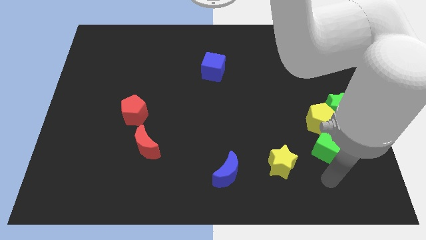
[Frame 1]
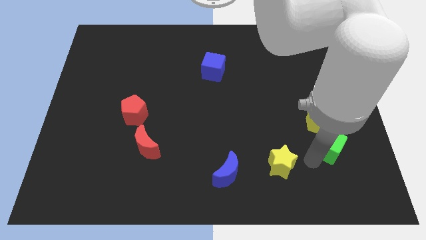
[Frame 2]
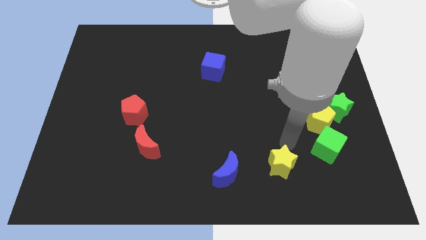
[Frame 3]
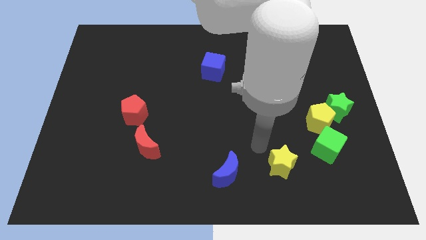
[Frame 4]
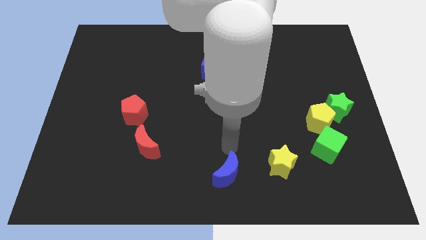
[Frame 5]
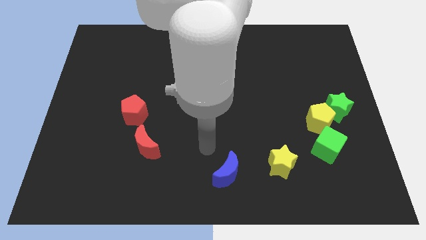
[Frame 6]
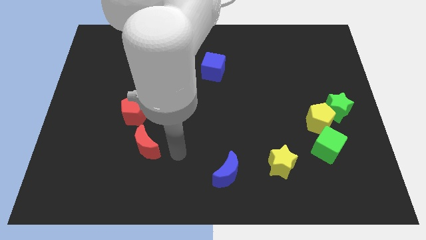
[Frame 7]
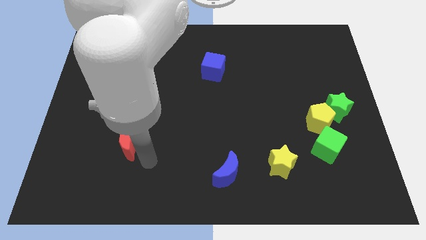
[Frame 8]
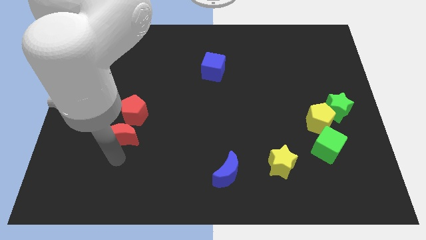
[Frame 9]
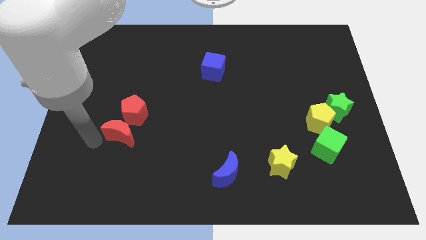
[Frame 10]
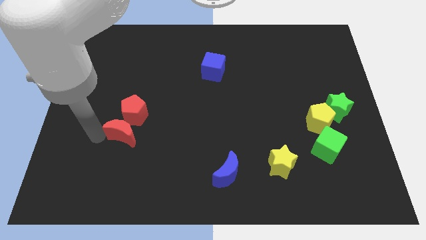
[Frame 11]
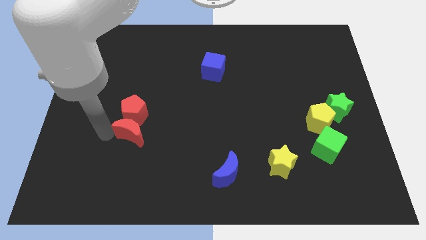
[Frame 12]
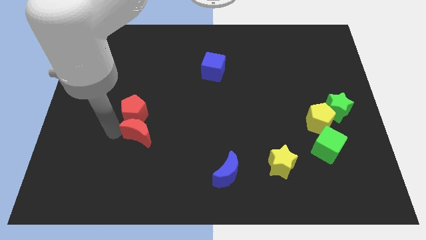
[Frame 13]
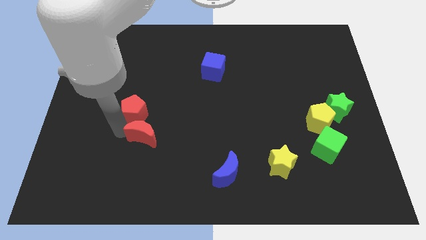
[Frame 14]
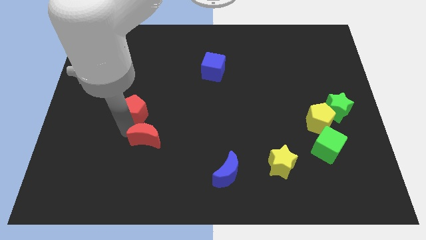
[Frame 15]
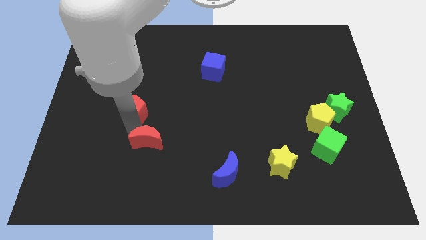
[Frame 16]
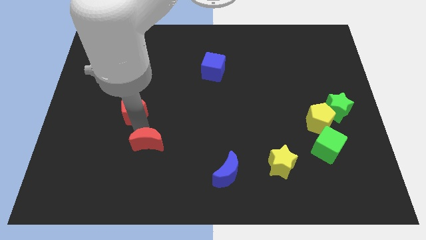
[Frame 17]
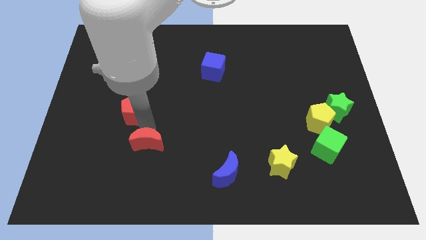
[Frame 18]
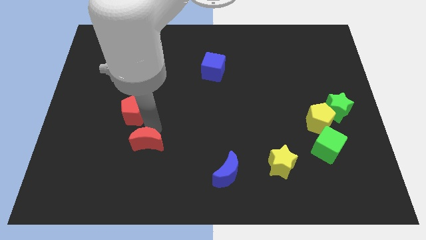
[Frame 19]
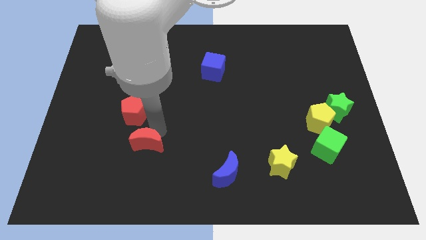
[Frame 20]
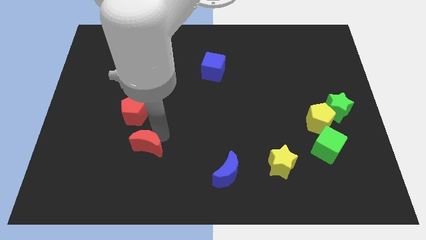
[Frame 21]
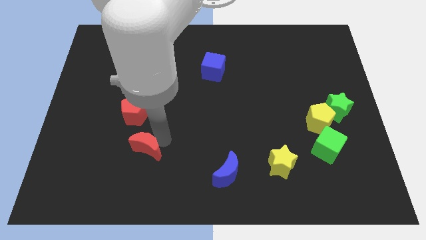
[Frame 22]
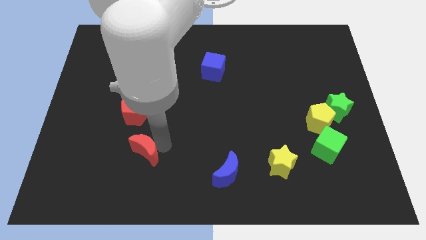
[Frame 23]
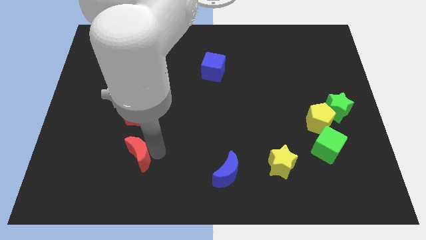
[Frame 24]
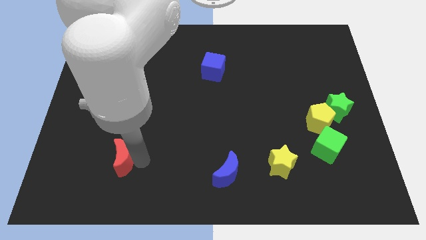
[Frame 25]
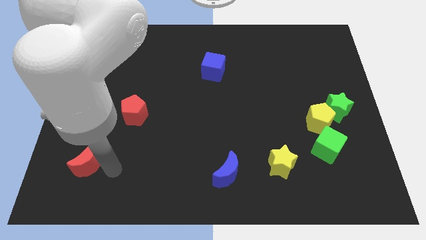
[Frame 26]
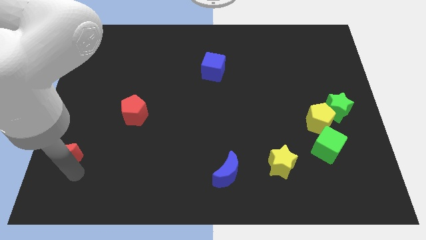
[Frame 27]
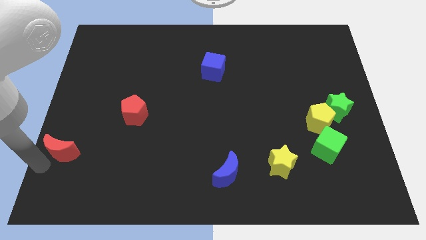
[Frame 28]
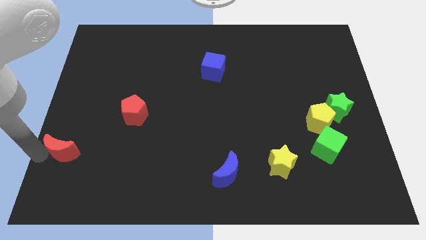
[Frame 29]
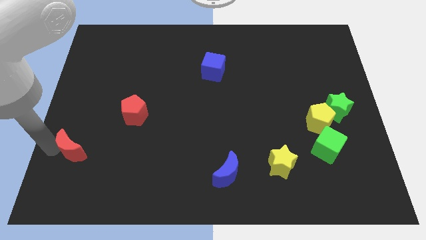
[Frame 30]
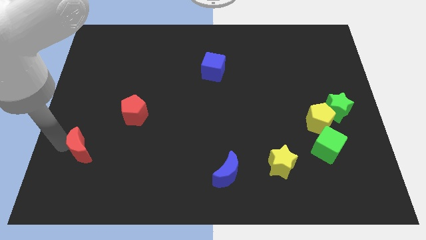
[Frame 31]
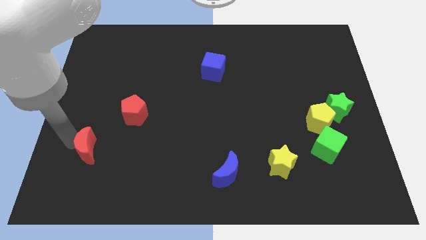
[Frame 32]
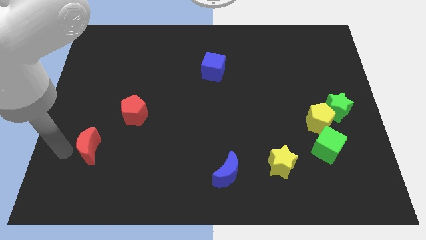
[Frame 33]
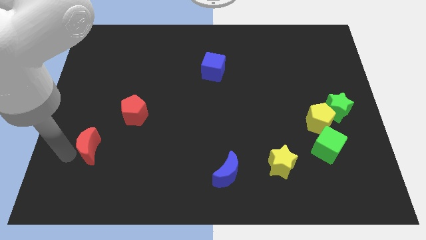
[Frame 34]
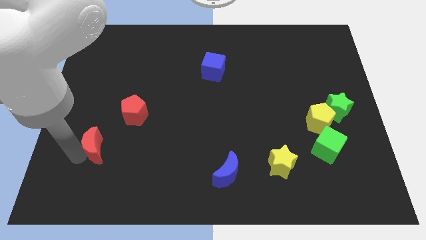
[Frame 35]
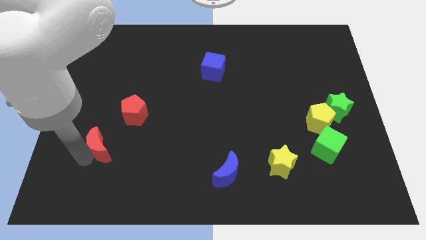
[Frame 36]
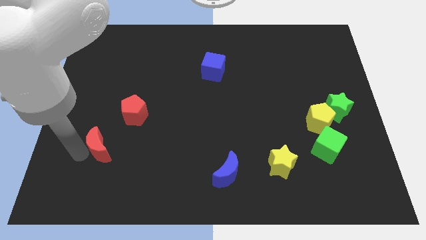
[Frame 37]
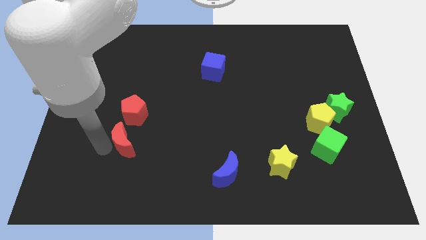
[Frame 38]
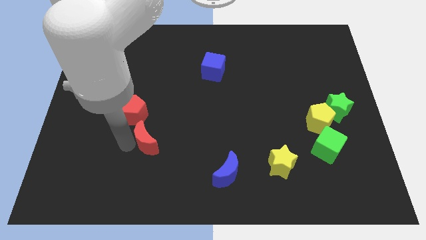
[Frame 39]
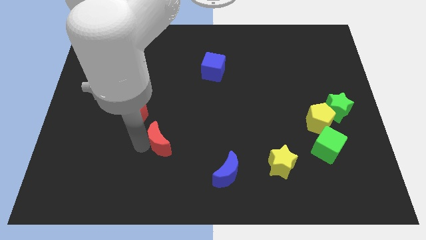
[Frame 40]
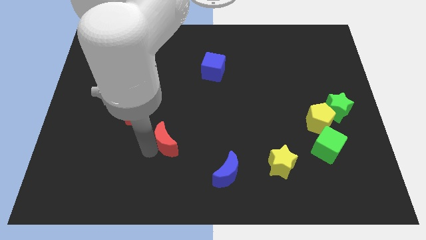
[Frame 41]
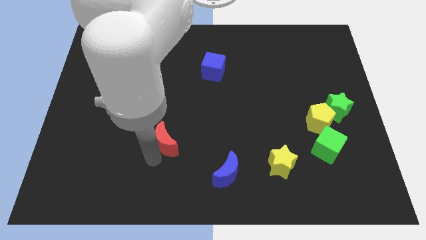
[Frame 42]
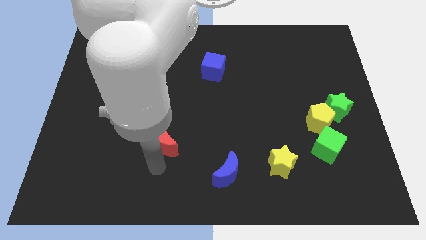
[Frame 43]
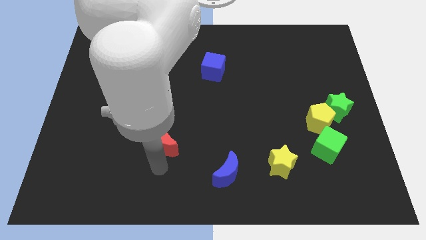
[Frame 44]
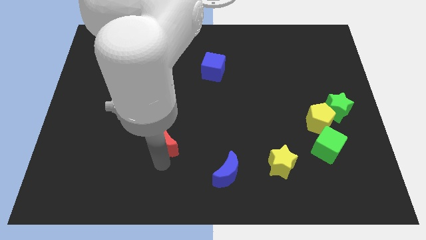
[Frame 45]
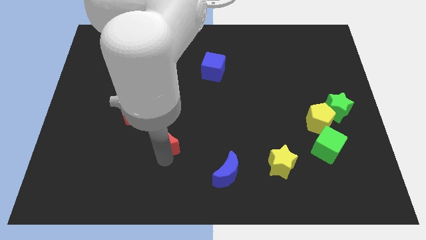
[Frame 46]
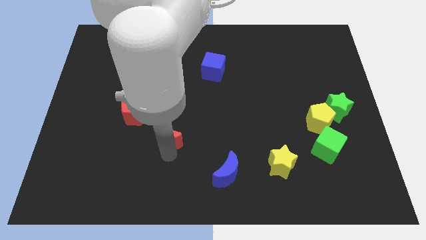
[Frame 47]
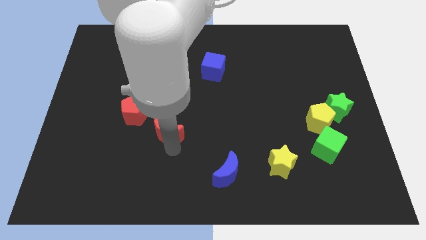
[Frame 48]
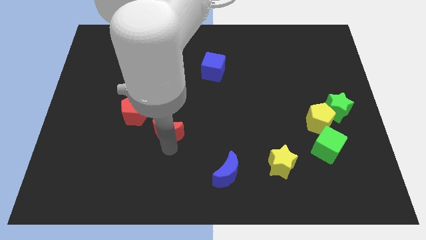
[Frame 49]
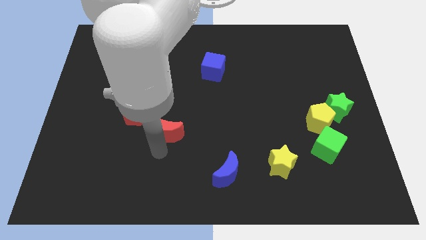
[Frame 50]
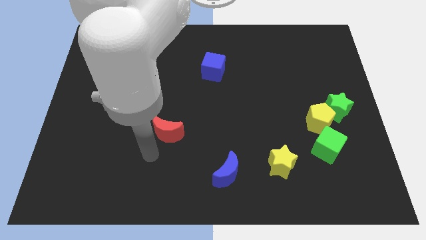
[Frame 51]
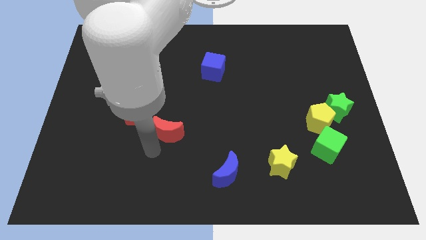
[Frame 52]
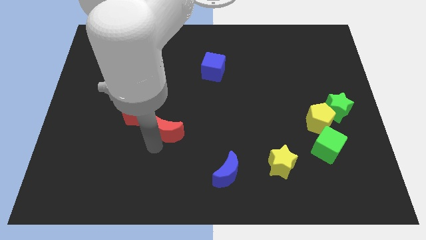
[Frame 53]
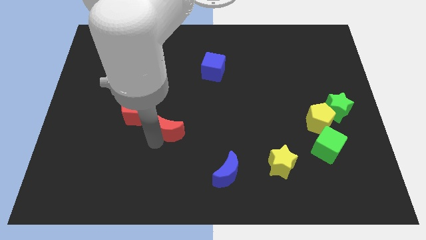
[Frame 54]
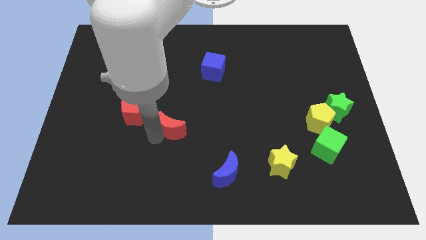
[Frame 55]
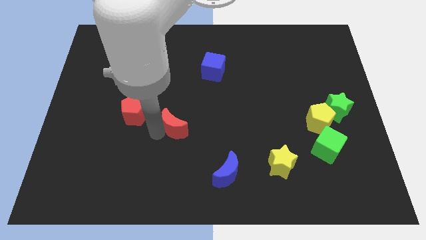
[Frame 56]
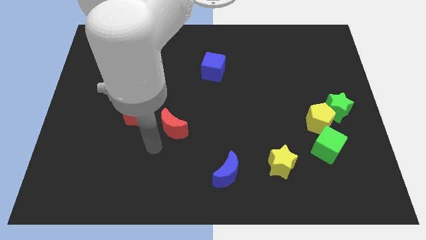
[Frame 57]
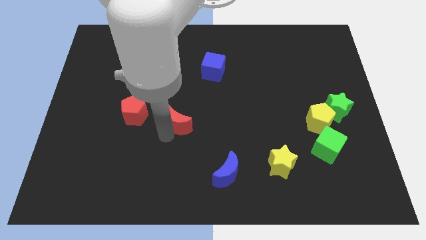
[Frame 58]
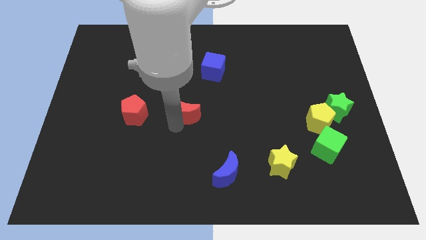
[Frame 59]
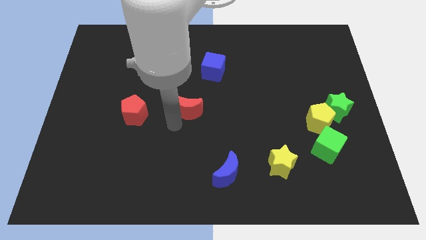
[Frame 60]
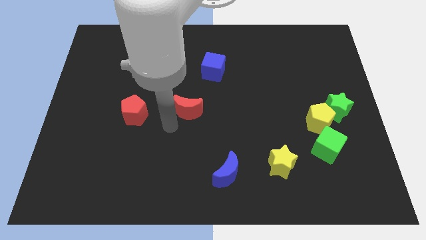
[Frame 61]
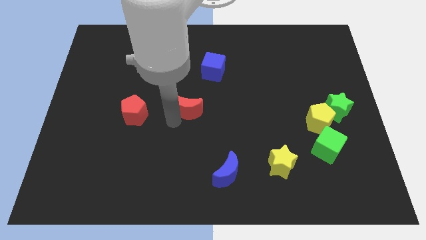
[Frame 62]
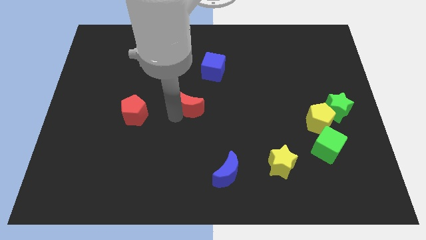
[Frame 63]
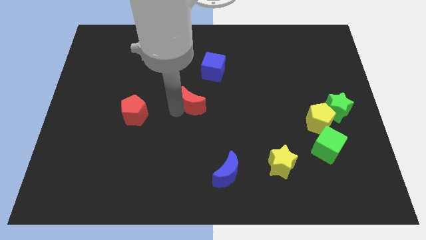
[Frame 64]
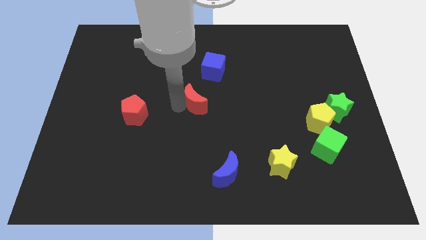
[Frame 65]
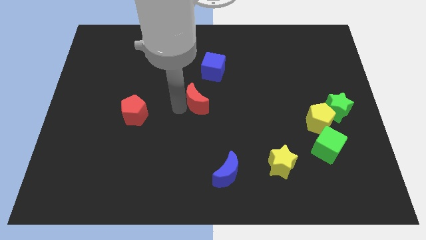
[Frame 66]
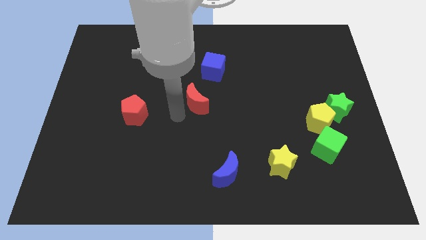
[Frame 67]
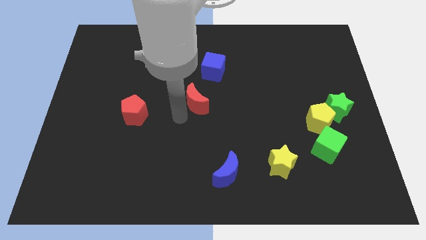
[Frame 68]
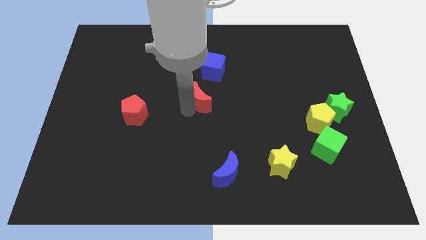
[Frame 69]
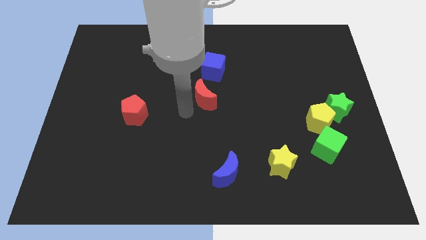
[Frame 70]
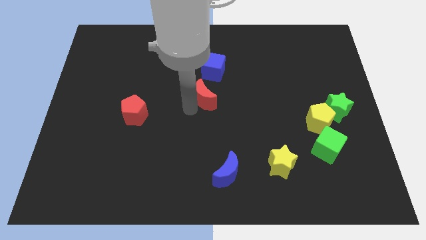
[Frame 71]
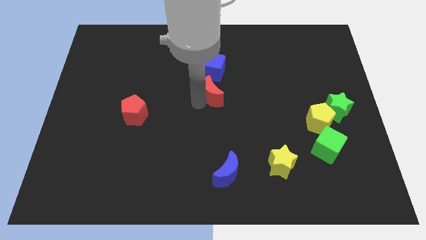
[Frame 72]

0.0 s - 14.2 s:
slide the red moon upwards and then to the right

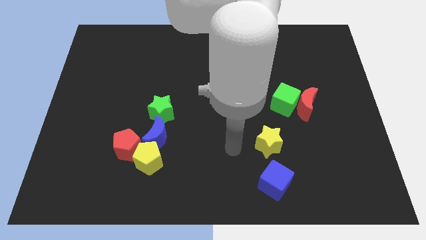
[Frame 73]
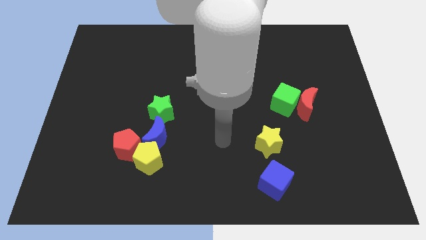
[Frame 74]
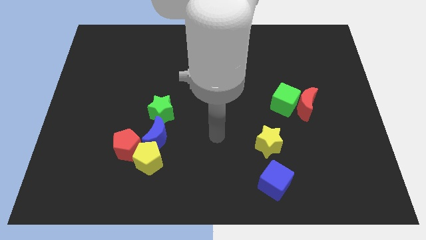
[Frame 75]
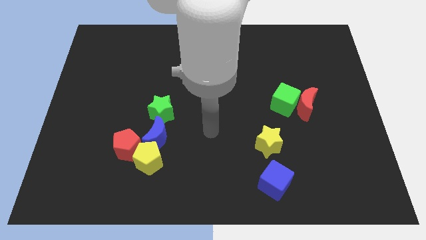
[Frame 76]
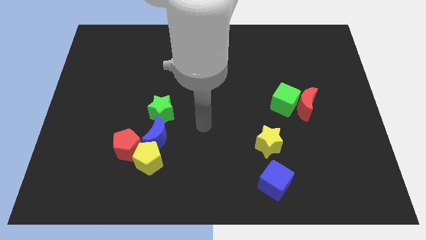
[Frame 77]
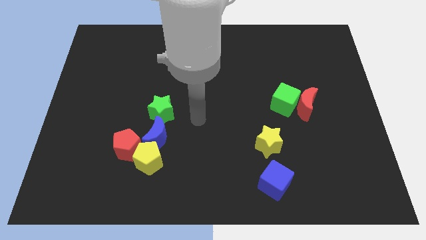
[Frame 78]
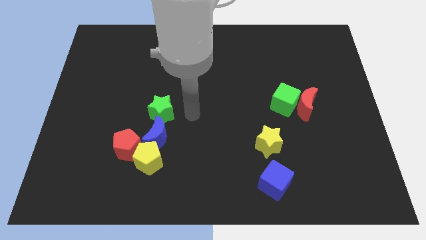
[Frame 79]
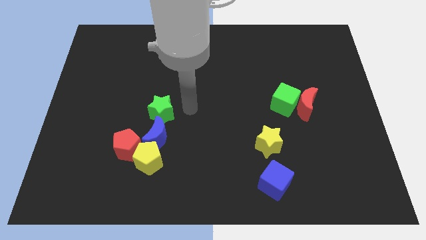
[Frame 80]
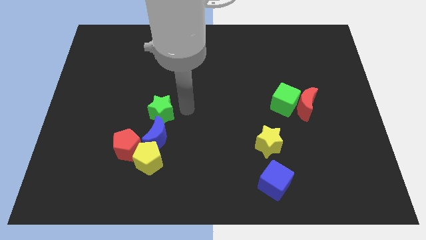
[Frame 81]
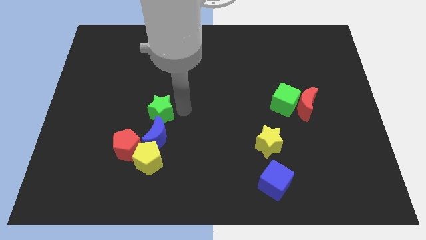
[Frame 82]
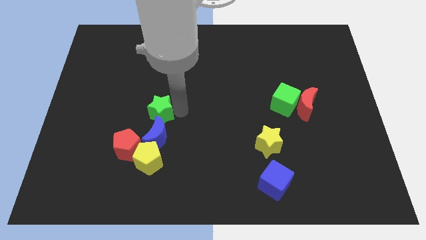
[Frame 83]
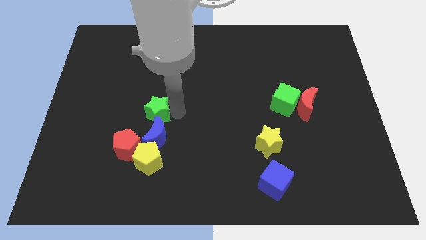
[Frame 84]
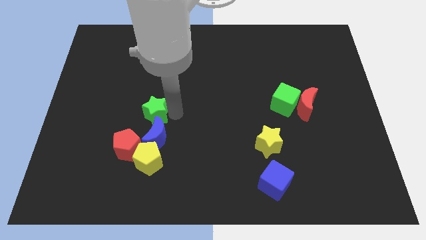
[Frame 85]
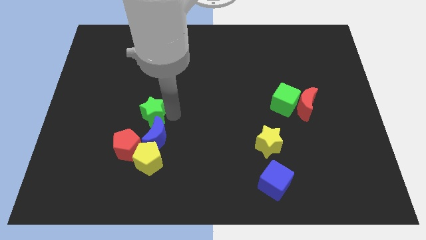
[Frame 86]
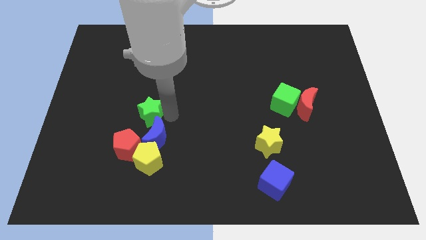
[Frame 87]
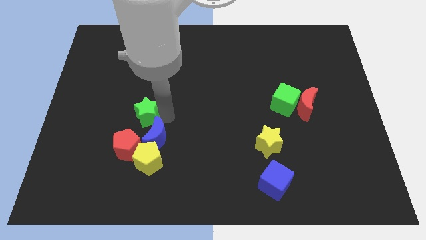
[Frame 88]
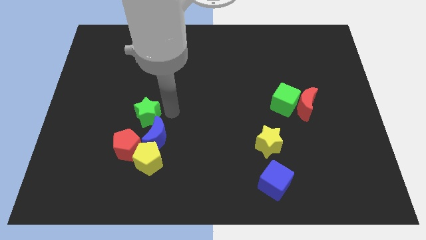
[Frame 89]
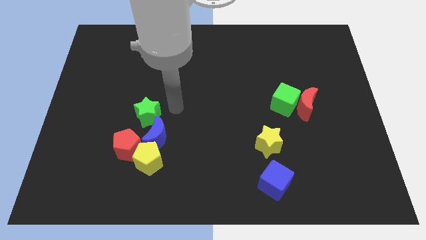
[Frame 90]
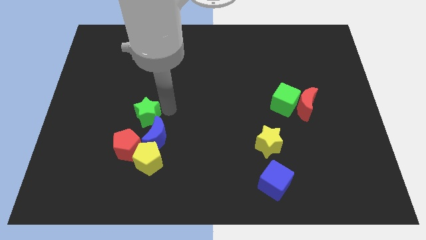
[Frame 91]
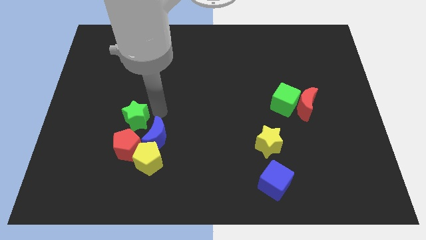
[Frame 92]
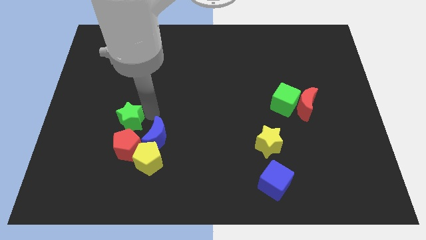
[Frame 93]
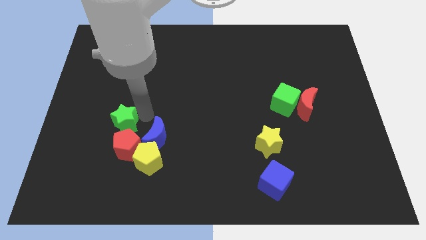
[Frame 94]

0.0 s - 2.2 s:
slightly push the green star down and then left
